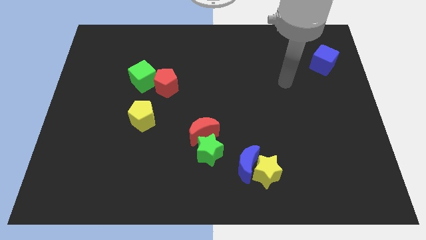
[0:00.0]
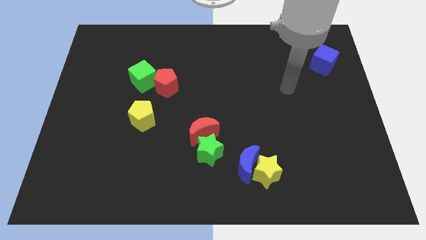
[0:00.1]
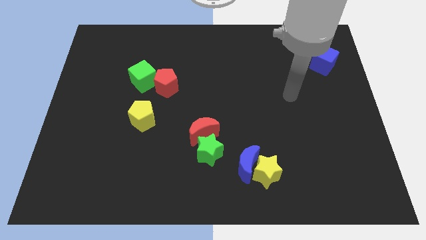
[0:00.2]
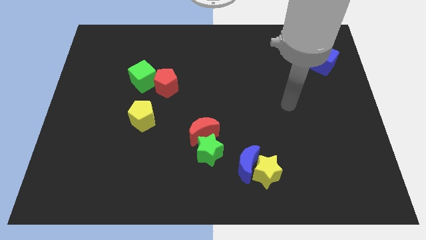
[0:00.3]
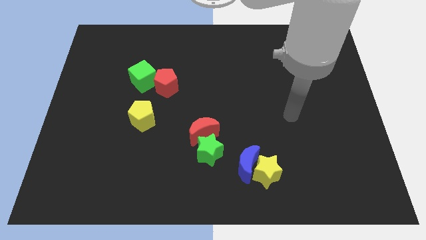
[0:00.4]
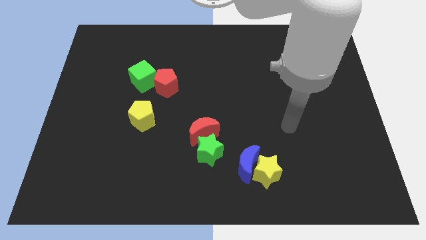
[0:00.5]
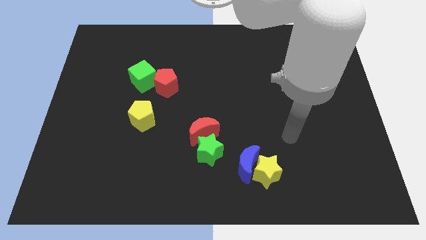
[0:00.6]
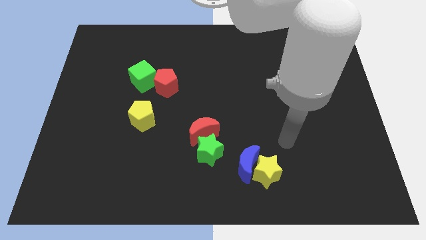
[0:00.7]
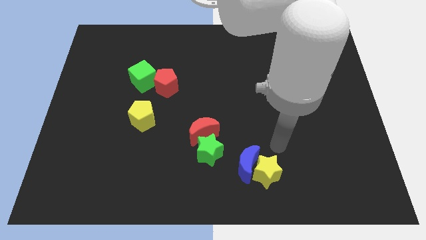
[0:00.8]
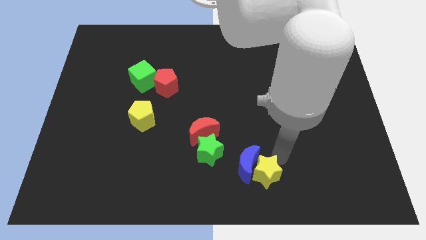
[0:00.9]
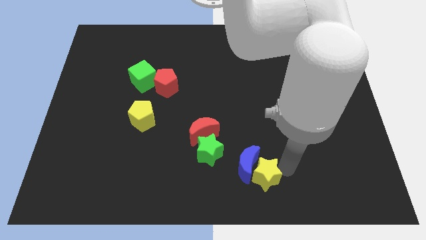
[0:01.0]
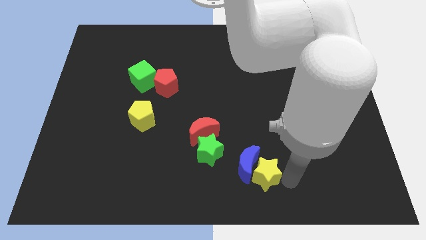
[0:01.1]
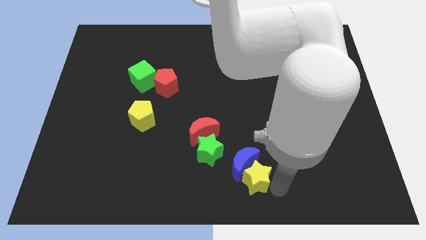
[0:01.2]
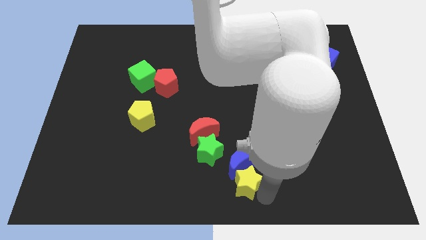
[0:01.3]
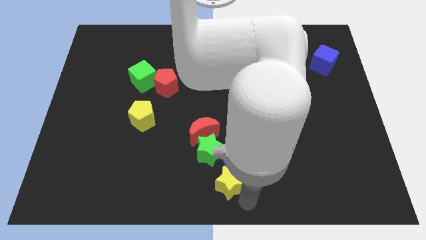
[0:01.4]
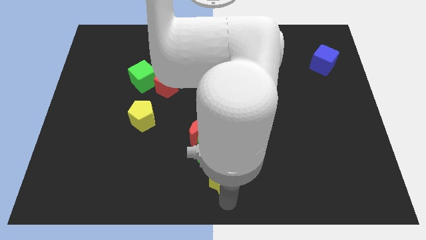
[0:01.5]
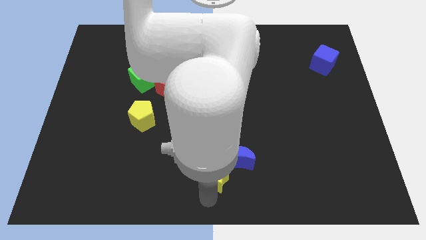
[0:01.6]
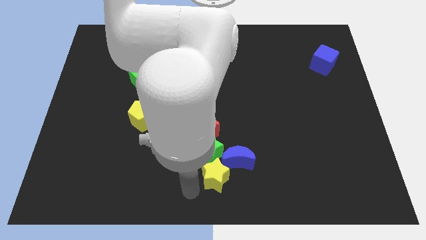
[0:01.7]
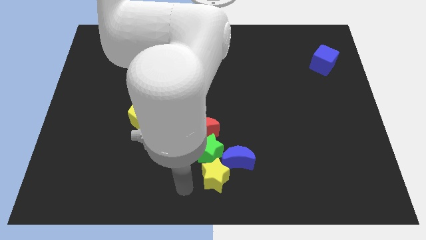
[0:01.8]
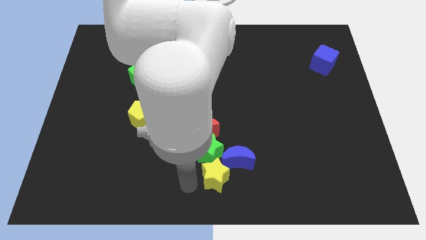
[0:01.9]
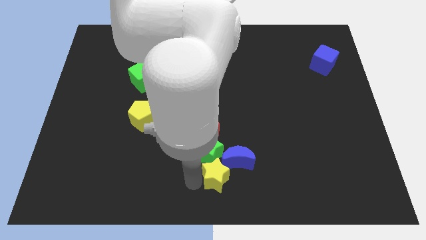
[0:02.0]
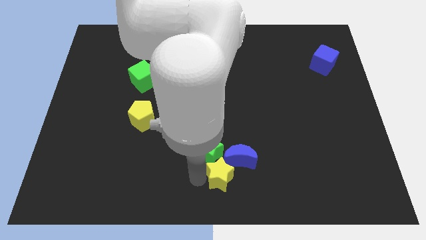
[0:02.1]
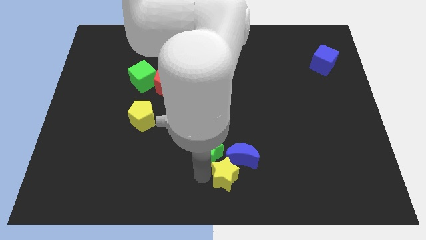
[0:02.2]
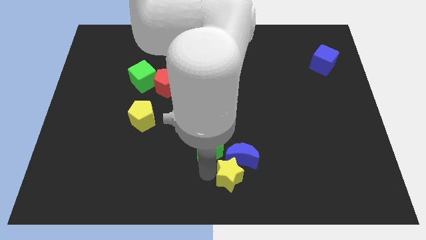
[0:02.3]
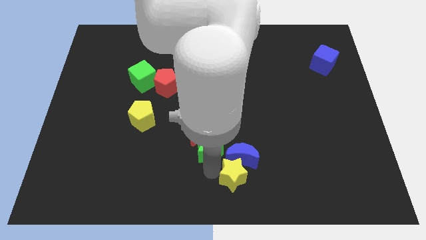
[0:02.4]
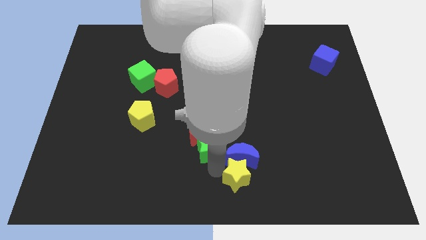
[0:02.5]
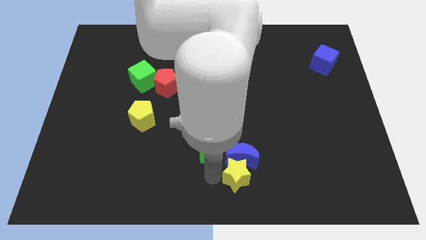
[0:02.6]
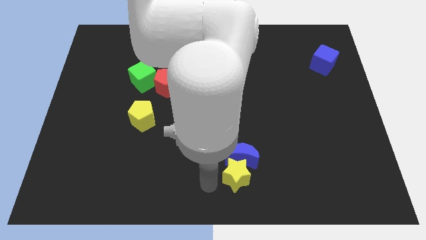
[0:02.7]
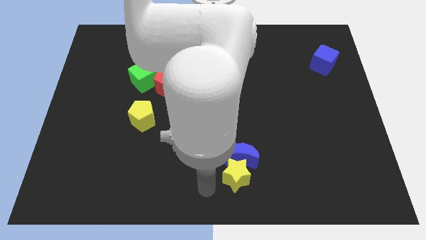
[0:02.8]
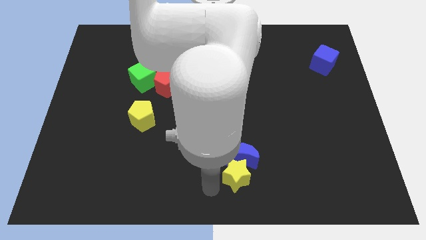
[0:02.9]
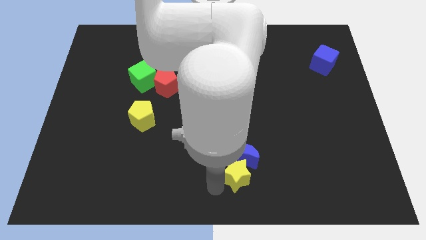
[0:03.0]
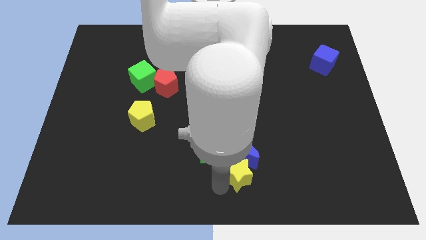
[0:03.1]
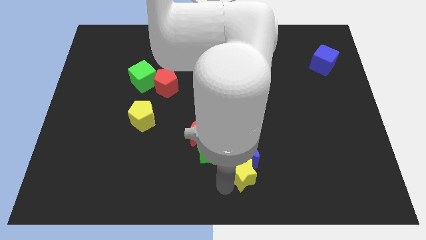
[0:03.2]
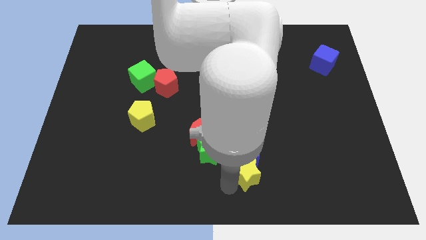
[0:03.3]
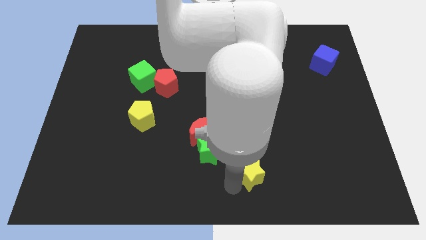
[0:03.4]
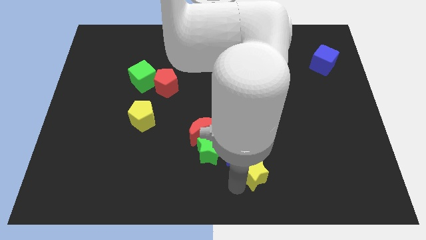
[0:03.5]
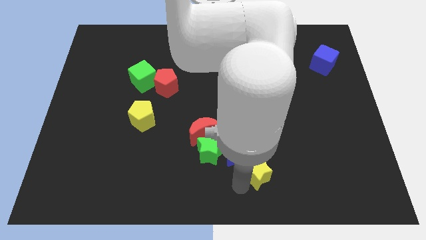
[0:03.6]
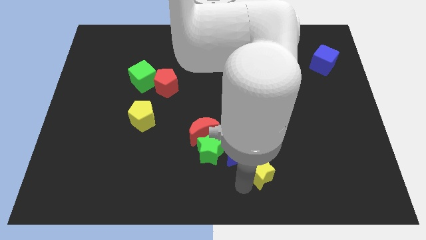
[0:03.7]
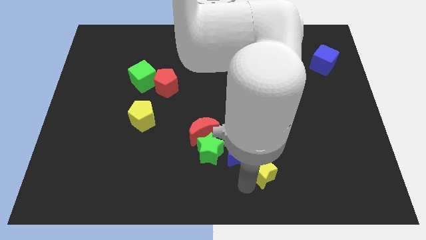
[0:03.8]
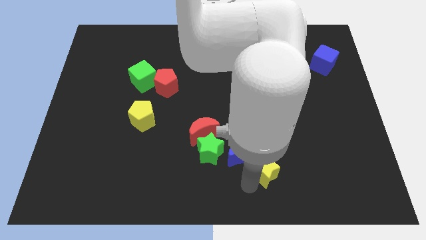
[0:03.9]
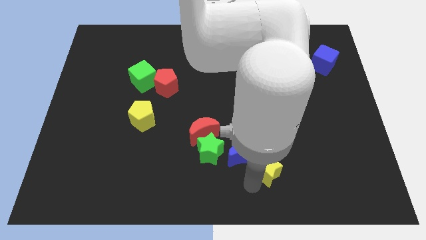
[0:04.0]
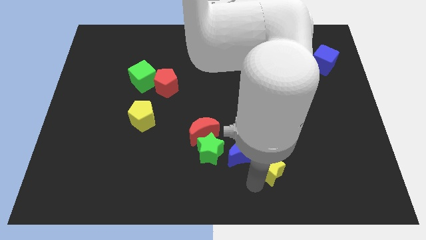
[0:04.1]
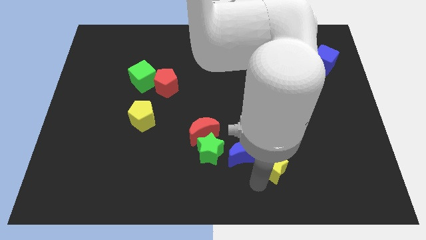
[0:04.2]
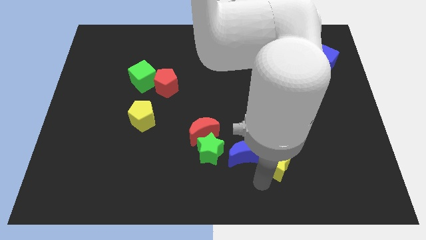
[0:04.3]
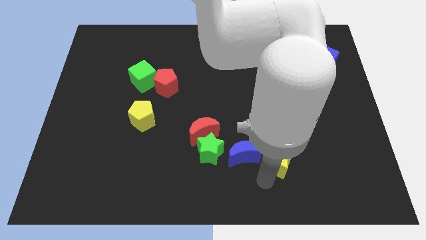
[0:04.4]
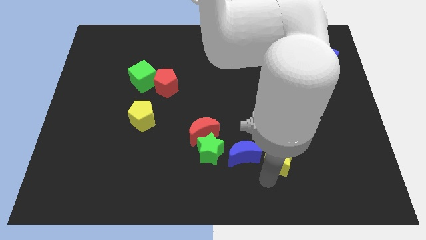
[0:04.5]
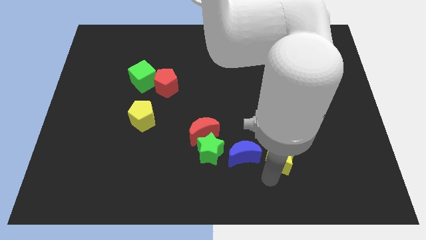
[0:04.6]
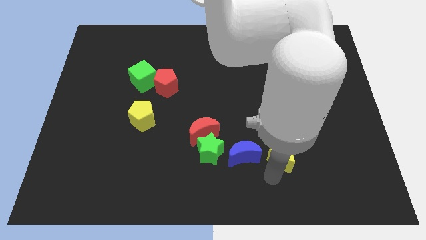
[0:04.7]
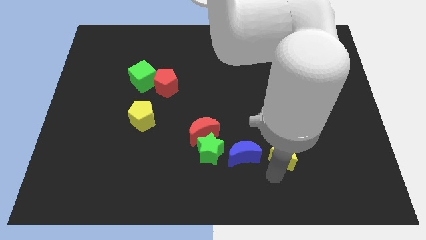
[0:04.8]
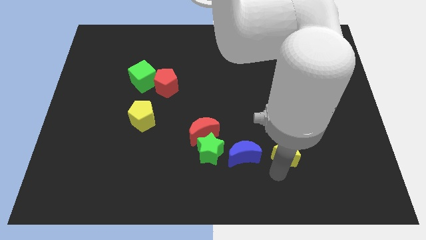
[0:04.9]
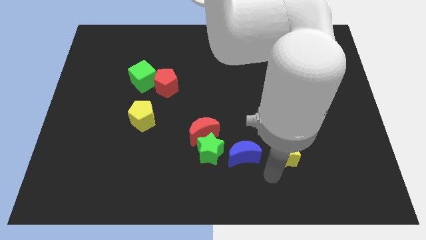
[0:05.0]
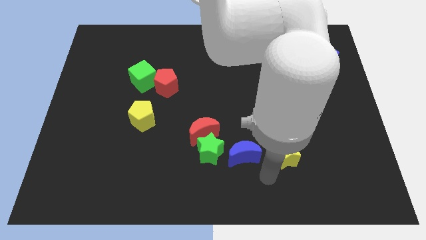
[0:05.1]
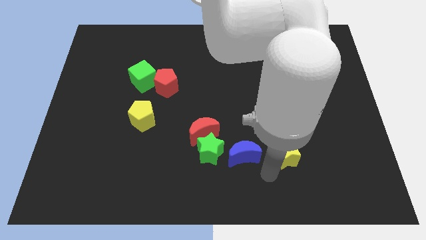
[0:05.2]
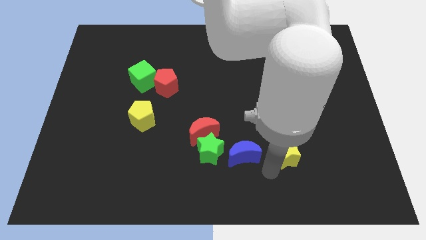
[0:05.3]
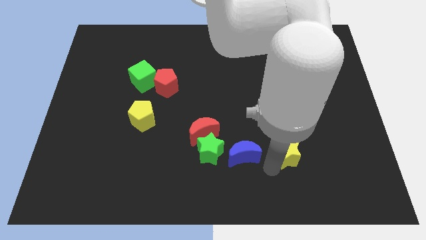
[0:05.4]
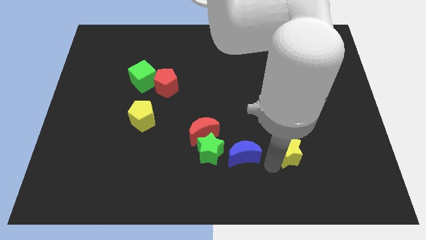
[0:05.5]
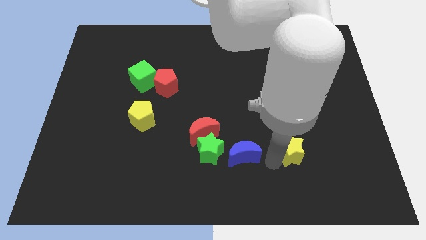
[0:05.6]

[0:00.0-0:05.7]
slide the yellow star somewhat diagonally upwards and to the right

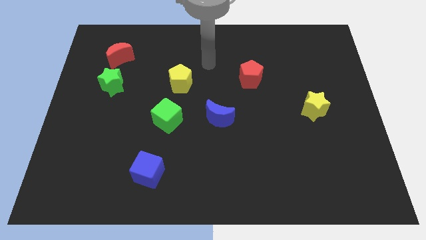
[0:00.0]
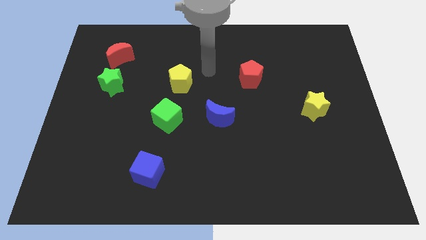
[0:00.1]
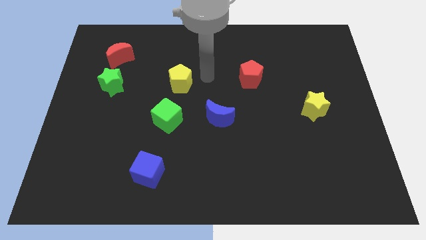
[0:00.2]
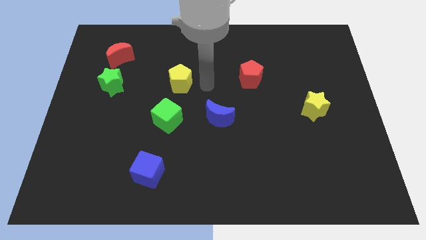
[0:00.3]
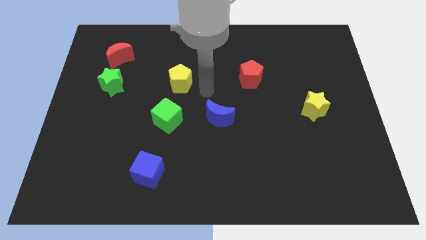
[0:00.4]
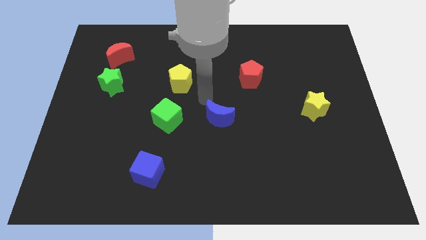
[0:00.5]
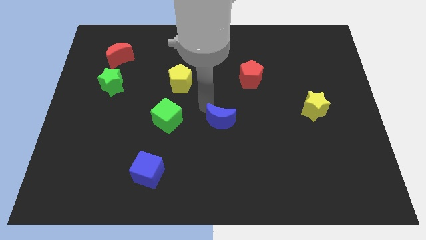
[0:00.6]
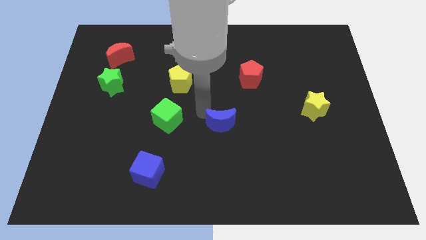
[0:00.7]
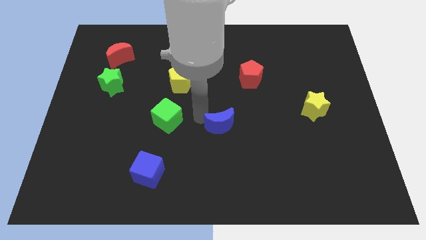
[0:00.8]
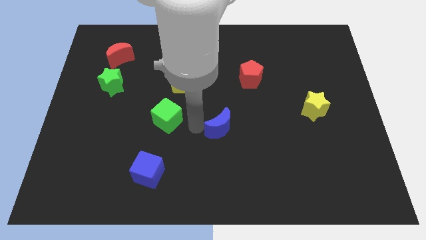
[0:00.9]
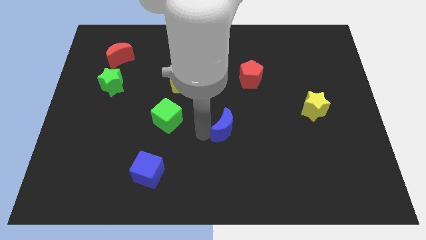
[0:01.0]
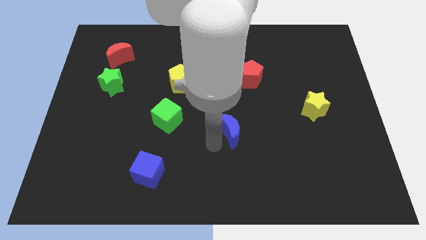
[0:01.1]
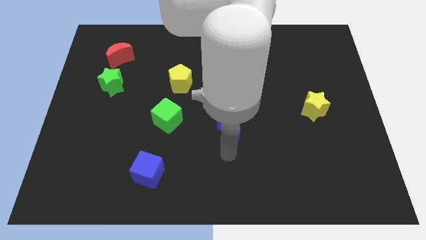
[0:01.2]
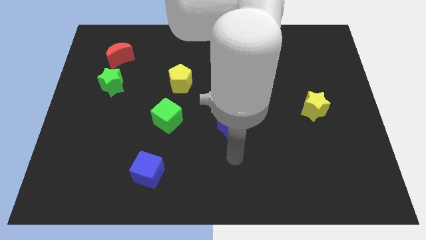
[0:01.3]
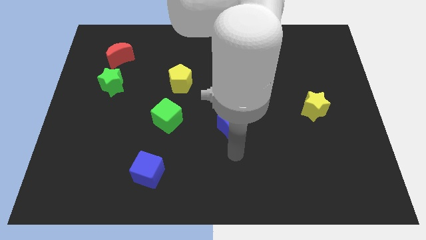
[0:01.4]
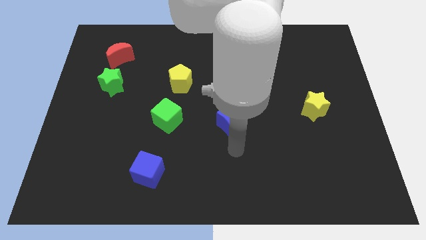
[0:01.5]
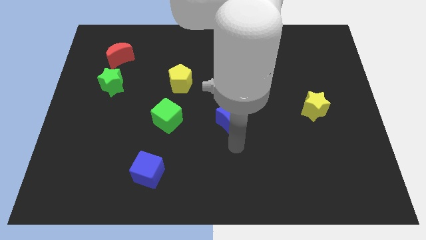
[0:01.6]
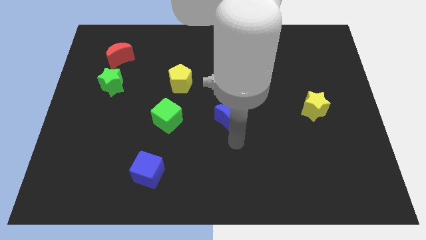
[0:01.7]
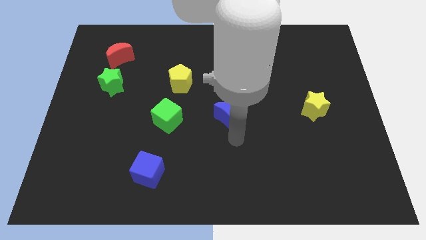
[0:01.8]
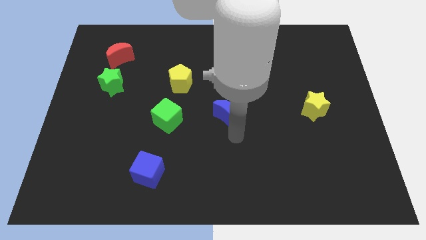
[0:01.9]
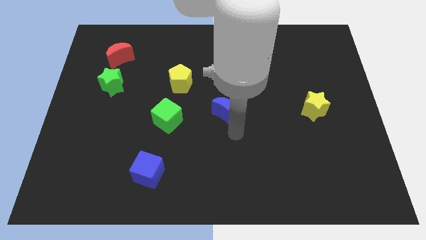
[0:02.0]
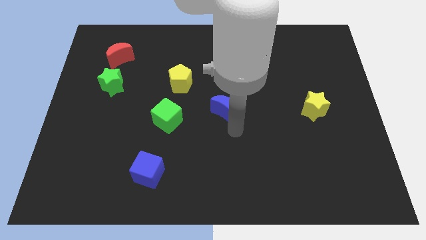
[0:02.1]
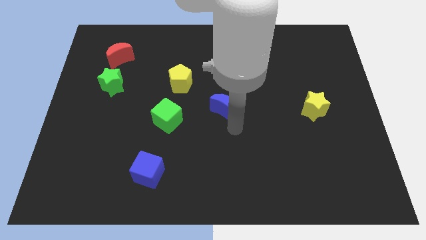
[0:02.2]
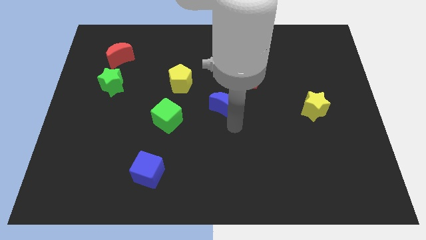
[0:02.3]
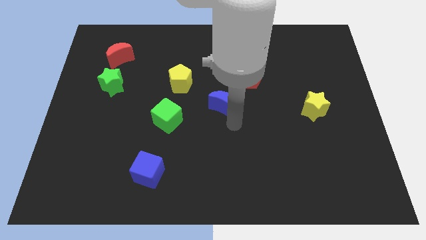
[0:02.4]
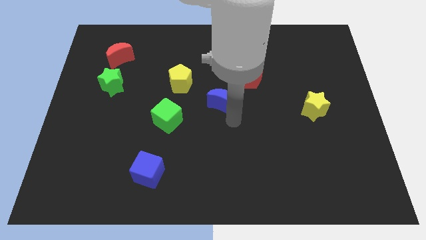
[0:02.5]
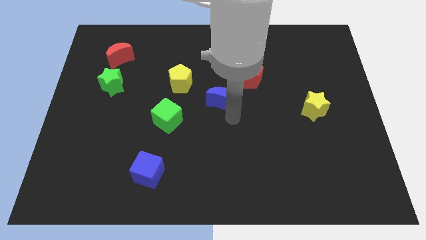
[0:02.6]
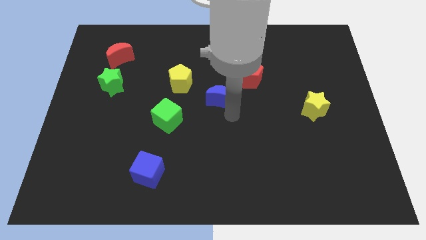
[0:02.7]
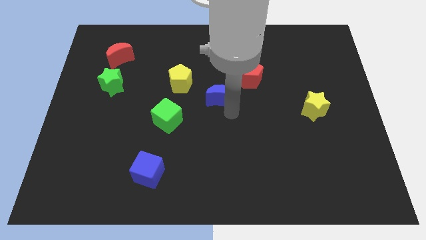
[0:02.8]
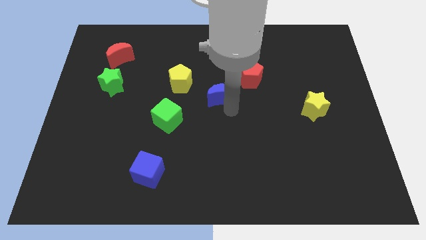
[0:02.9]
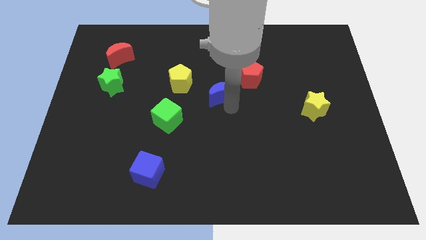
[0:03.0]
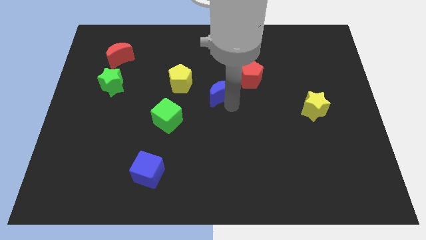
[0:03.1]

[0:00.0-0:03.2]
push the blue moon somewhat up
